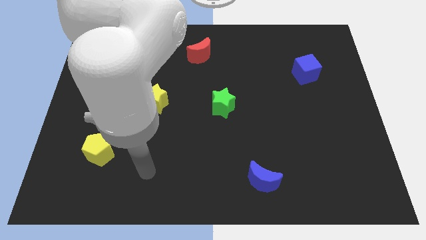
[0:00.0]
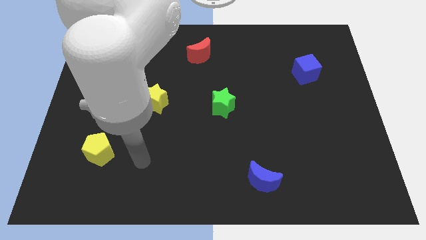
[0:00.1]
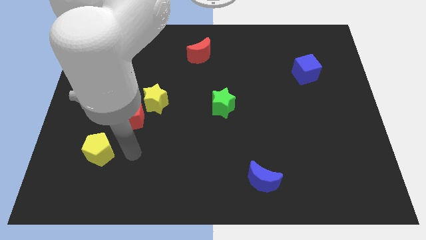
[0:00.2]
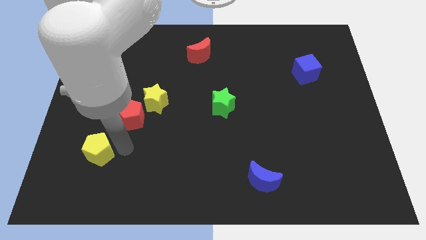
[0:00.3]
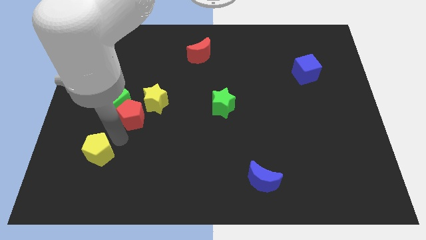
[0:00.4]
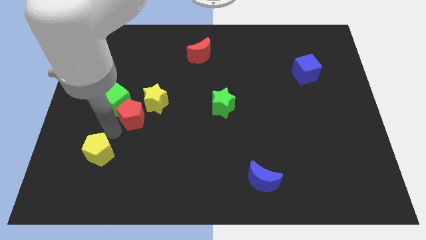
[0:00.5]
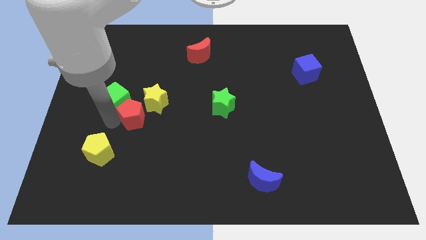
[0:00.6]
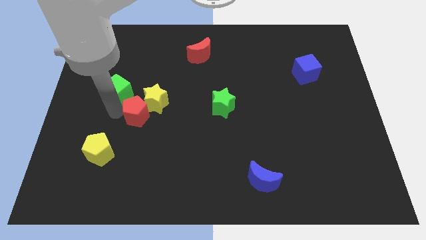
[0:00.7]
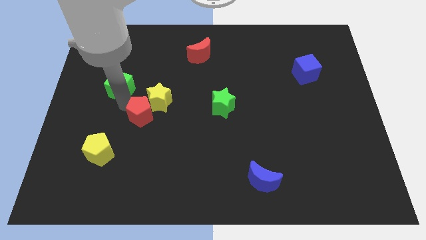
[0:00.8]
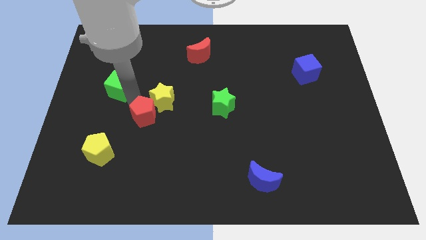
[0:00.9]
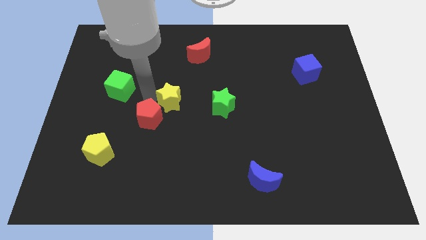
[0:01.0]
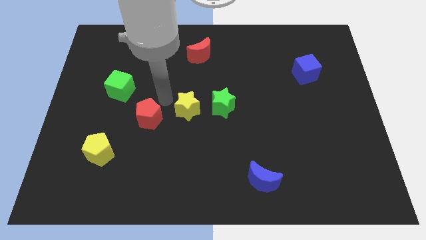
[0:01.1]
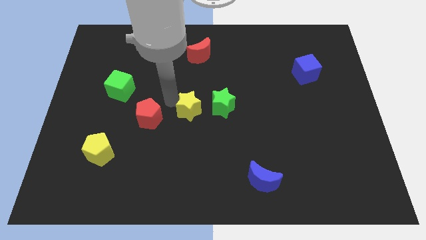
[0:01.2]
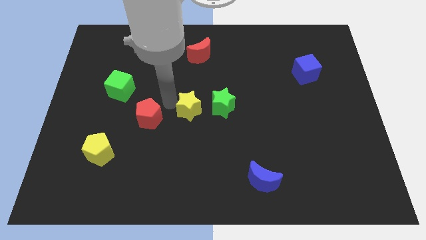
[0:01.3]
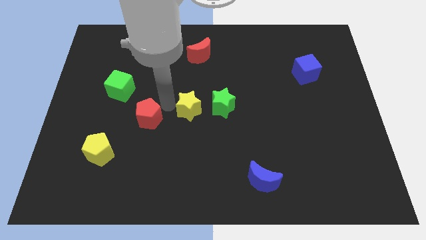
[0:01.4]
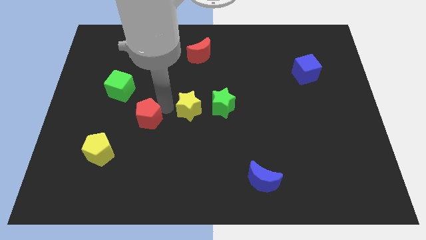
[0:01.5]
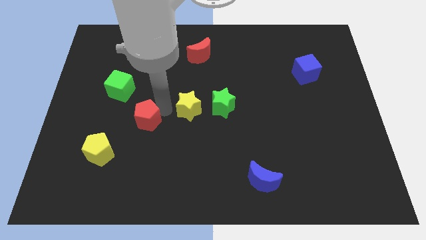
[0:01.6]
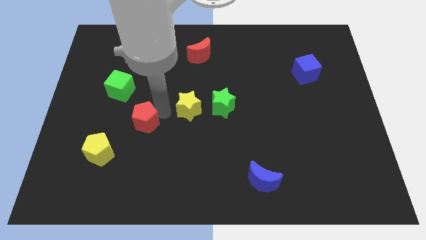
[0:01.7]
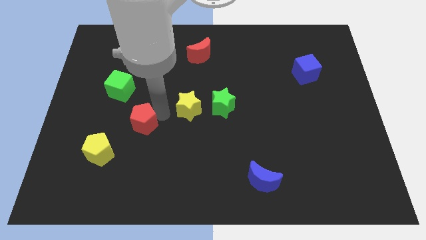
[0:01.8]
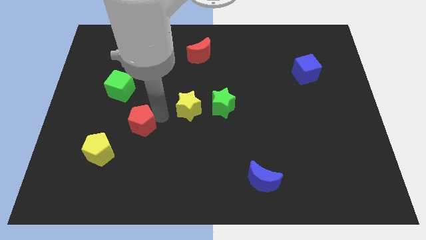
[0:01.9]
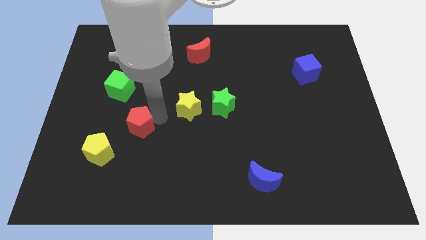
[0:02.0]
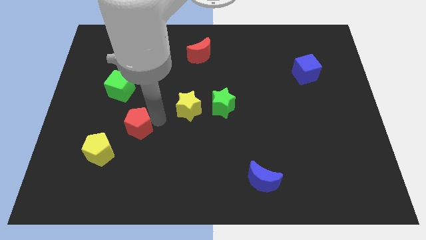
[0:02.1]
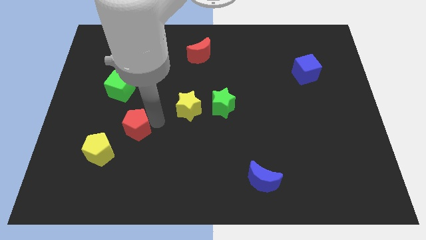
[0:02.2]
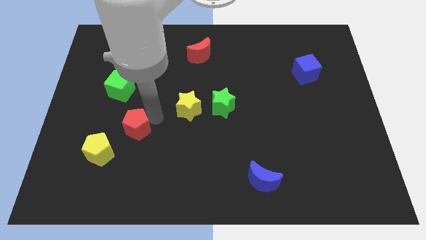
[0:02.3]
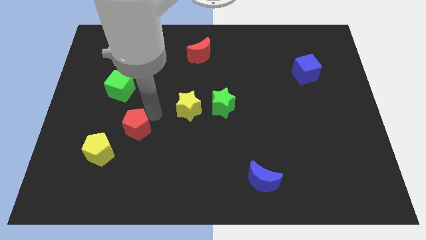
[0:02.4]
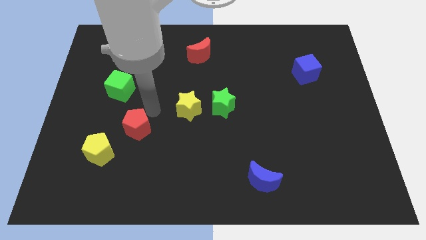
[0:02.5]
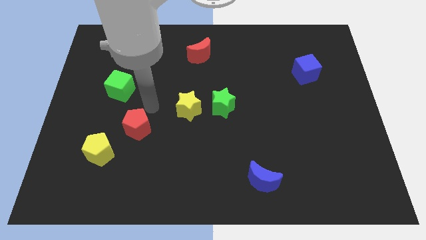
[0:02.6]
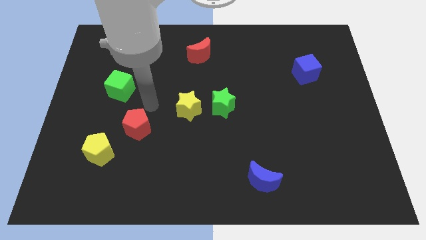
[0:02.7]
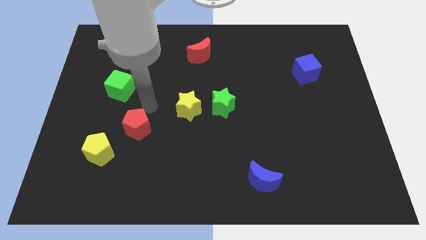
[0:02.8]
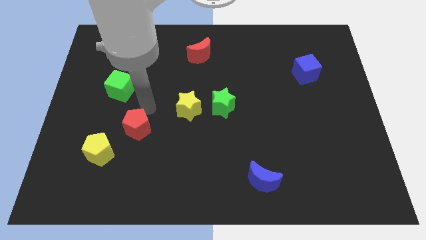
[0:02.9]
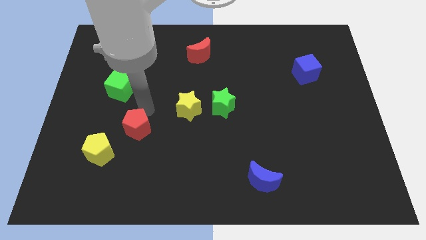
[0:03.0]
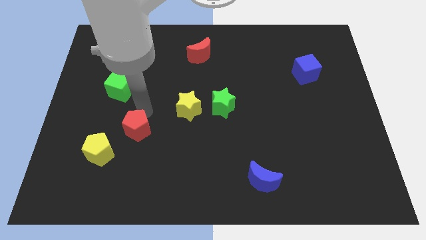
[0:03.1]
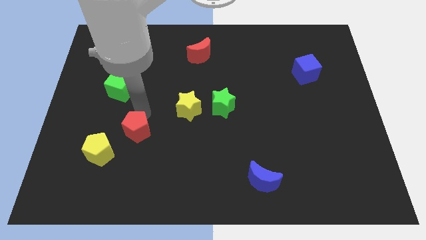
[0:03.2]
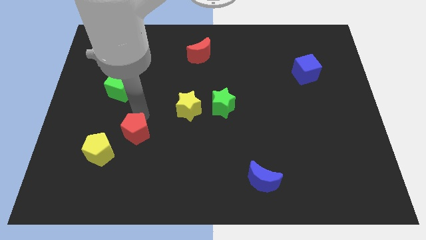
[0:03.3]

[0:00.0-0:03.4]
pull the red pentagon apart from the green cube and yellow star

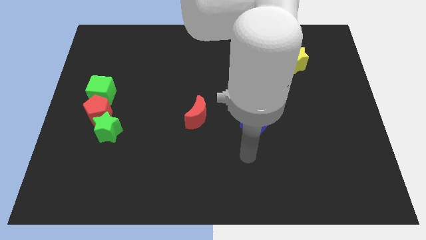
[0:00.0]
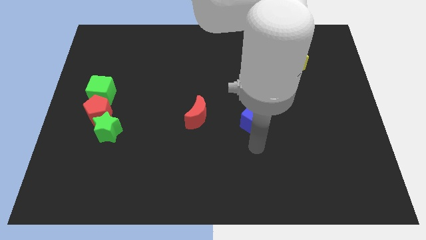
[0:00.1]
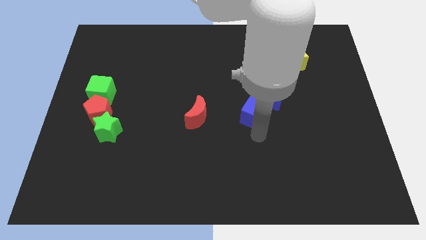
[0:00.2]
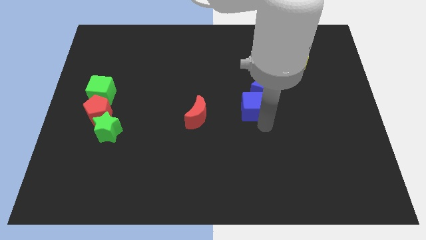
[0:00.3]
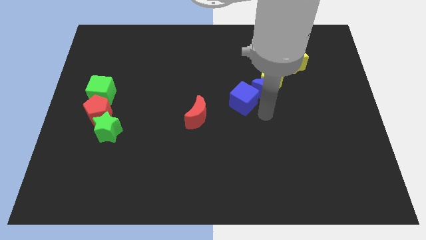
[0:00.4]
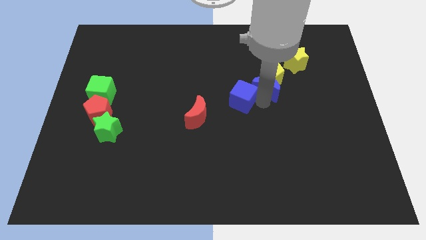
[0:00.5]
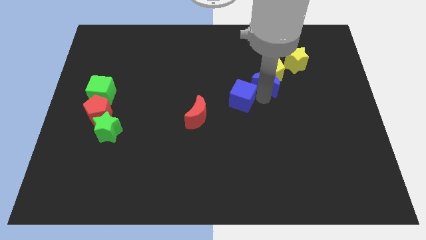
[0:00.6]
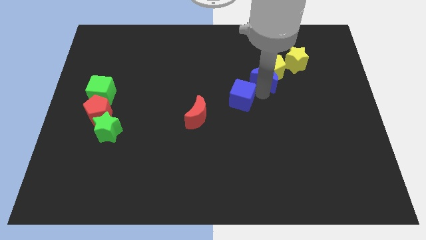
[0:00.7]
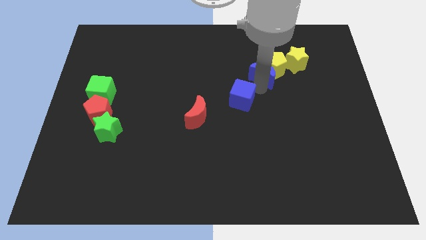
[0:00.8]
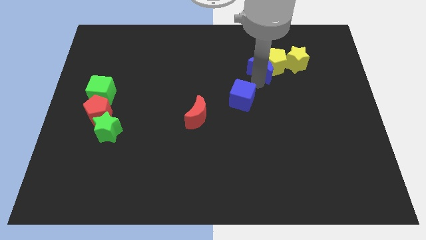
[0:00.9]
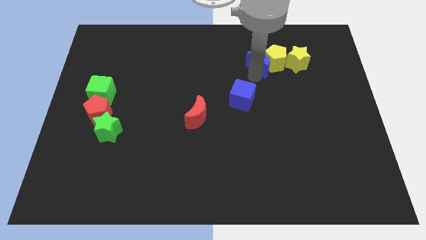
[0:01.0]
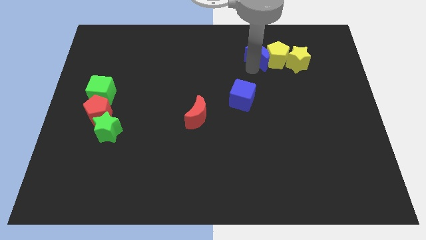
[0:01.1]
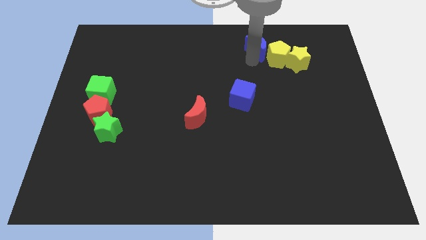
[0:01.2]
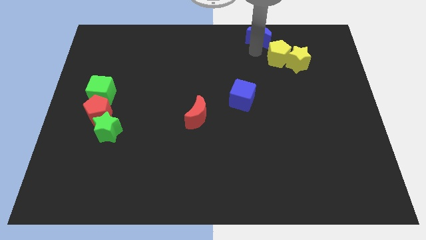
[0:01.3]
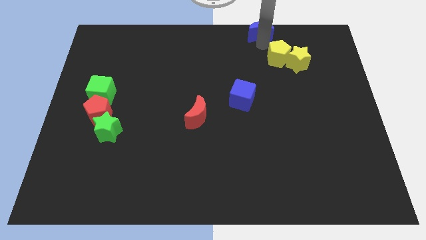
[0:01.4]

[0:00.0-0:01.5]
separate the yellow pentagon from the blue moon

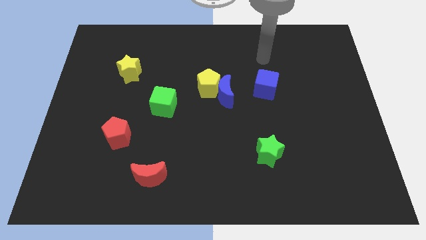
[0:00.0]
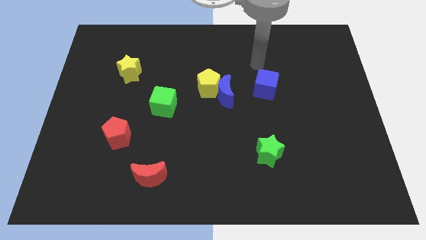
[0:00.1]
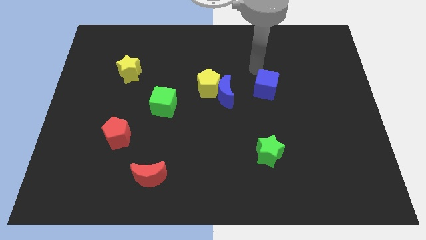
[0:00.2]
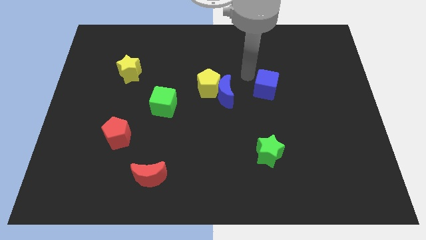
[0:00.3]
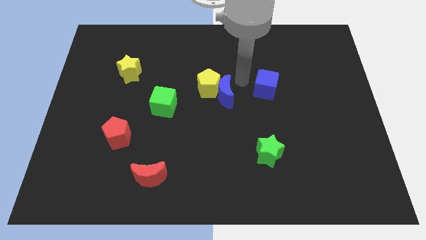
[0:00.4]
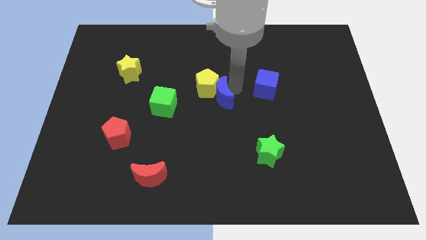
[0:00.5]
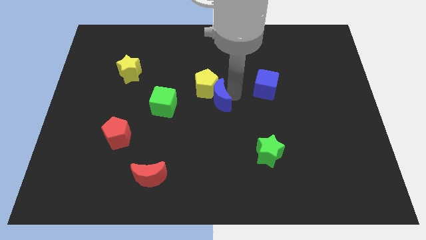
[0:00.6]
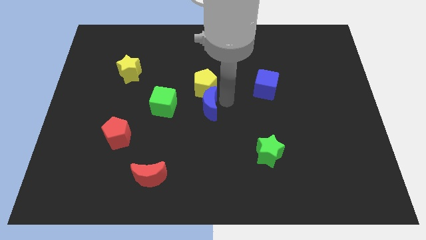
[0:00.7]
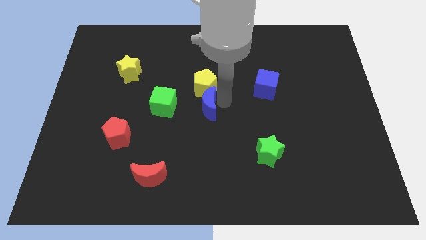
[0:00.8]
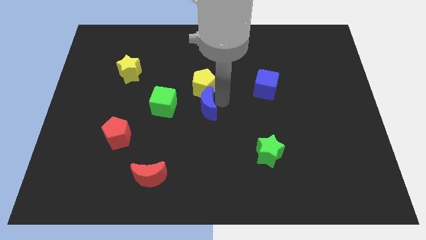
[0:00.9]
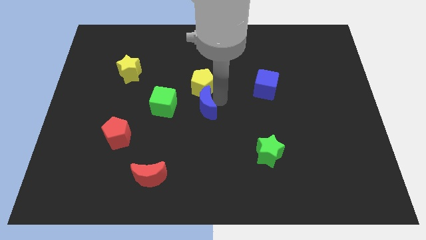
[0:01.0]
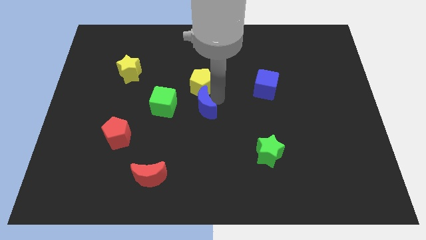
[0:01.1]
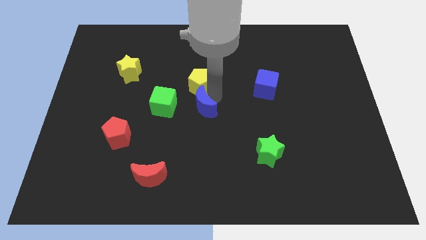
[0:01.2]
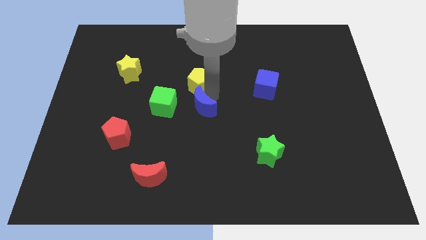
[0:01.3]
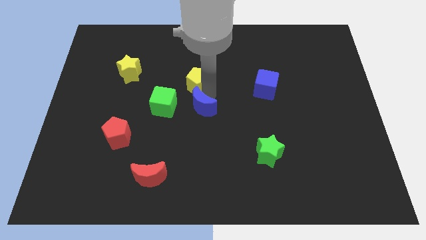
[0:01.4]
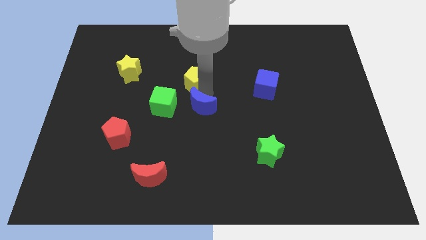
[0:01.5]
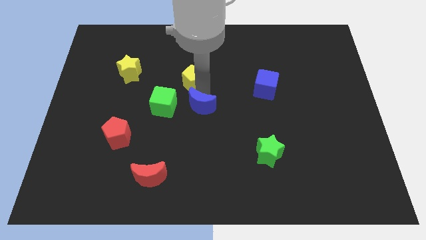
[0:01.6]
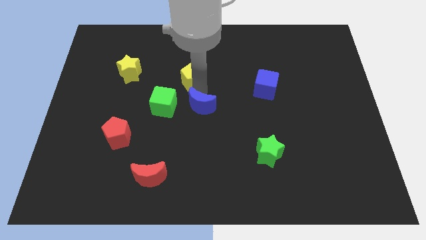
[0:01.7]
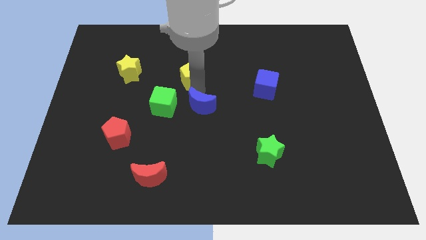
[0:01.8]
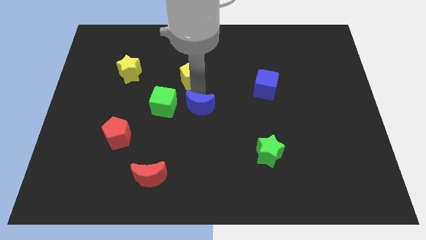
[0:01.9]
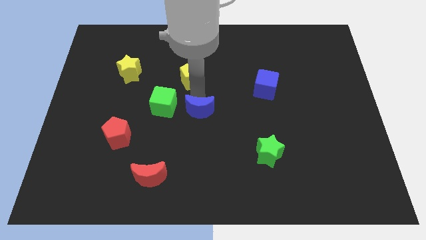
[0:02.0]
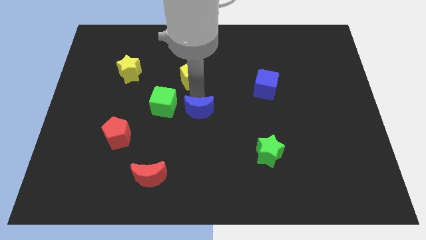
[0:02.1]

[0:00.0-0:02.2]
pull the yellow pentagon apart from the blue moon

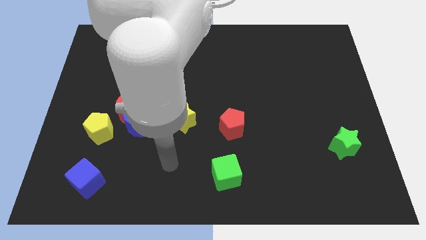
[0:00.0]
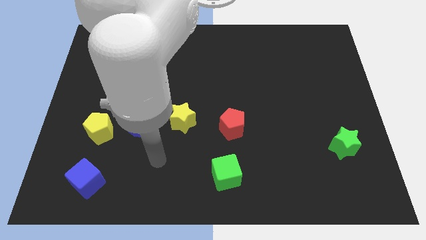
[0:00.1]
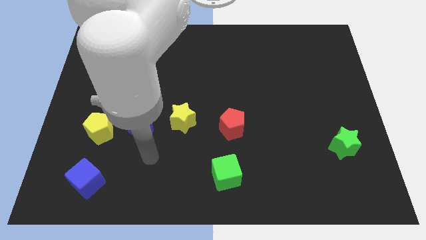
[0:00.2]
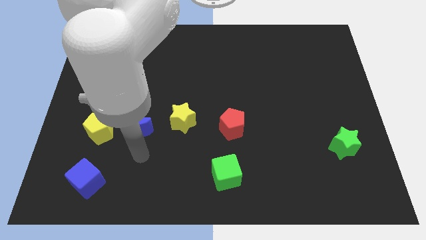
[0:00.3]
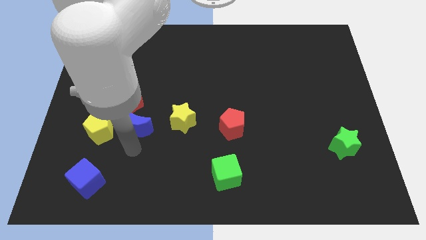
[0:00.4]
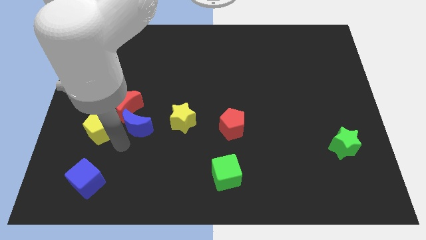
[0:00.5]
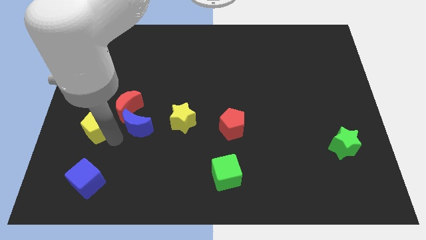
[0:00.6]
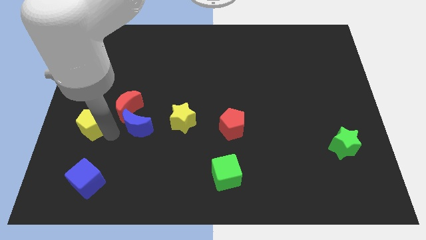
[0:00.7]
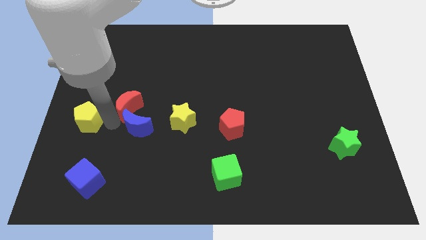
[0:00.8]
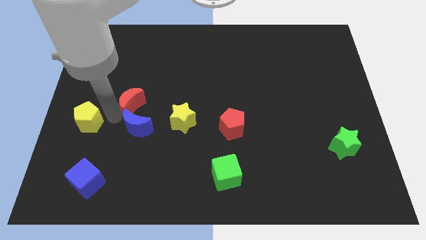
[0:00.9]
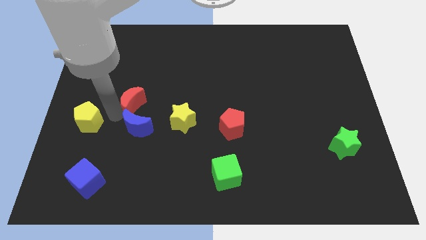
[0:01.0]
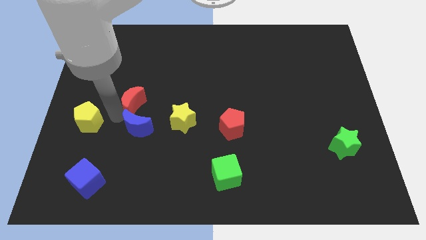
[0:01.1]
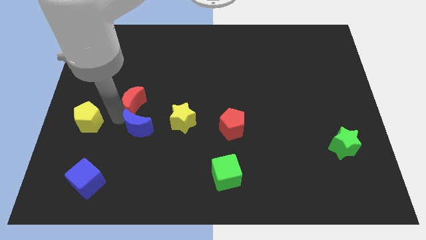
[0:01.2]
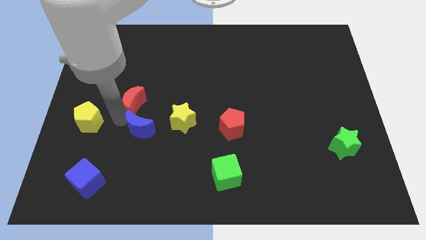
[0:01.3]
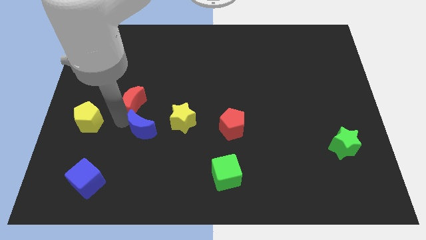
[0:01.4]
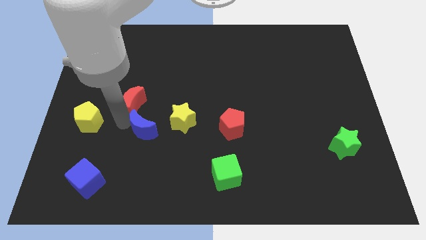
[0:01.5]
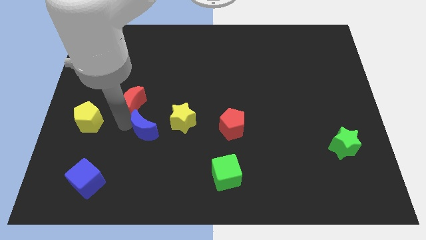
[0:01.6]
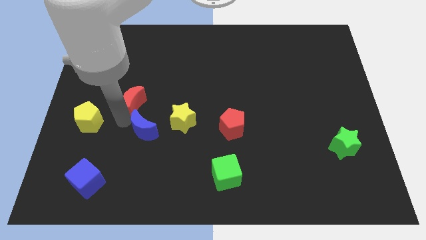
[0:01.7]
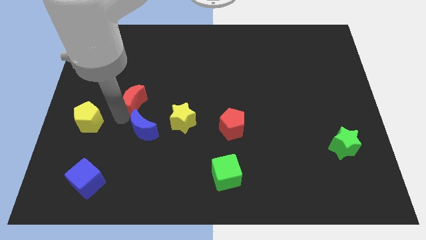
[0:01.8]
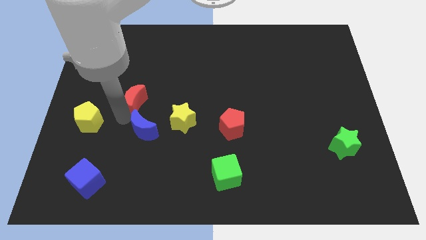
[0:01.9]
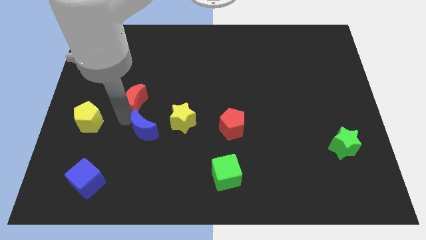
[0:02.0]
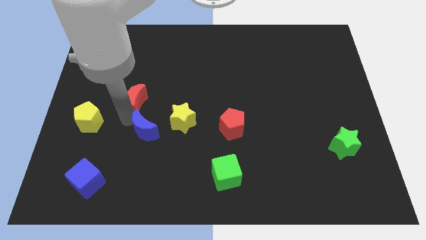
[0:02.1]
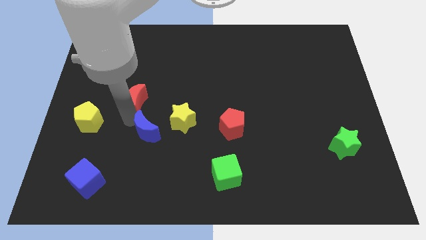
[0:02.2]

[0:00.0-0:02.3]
separate the blue moon from the red moon and yellow pentagon
